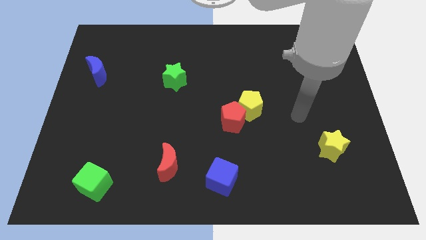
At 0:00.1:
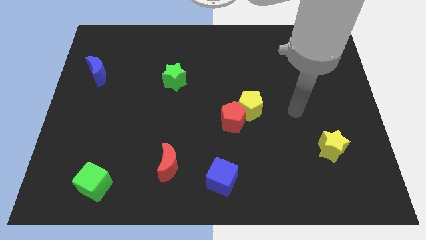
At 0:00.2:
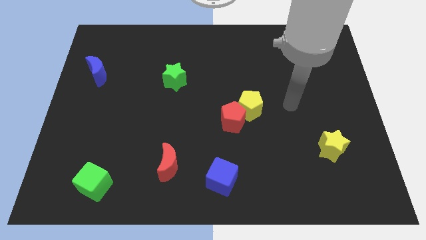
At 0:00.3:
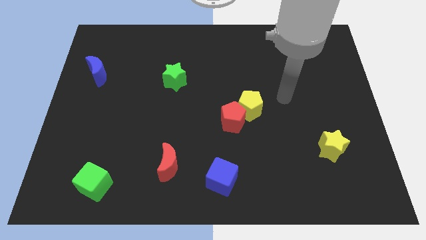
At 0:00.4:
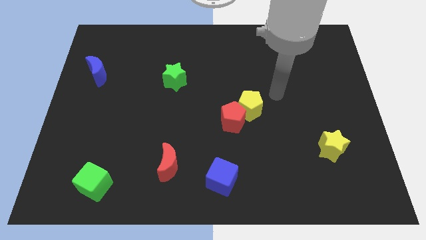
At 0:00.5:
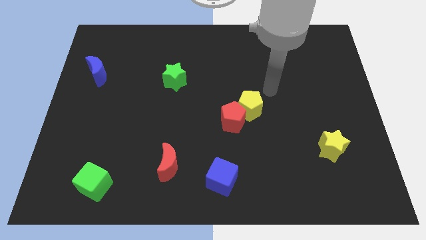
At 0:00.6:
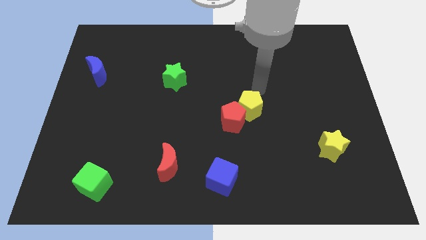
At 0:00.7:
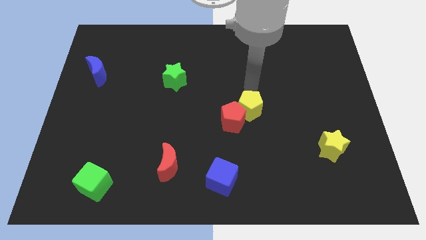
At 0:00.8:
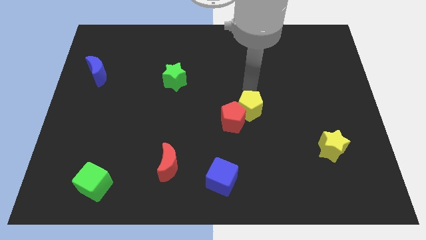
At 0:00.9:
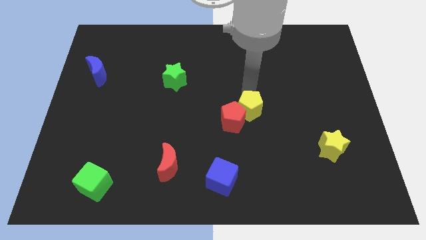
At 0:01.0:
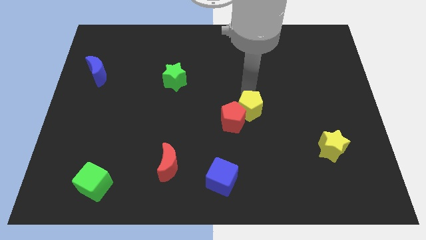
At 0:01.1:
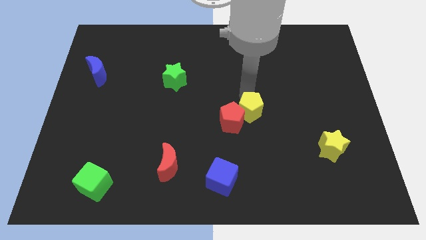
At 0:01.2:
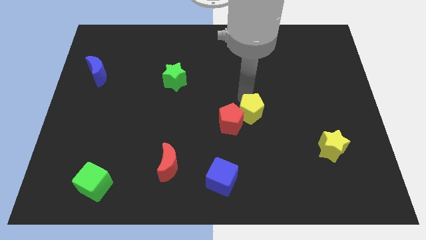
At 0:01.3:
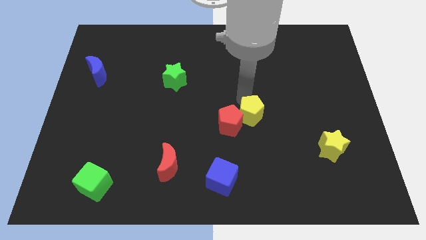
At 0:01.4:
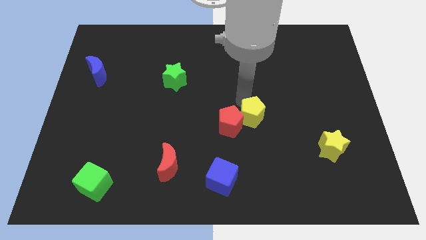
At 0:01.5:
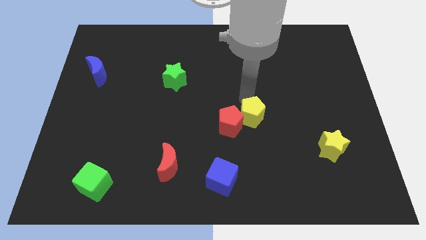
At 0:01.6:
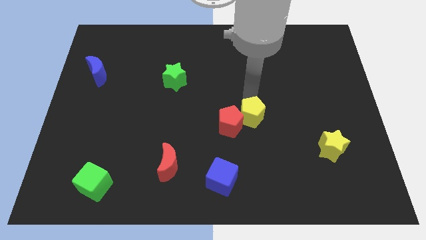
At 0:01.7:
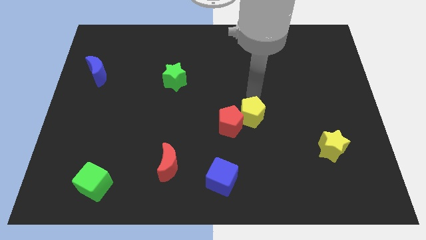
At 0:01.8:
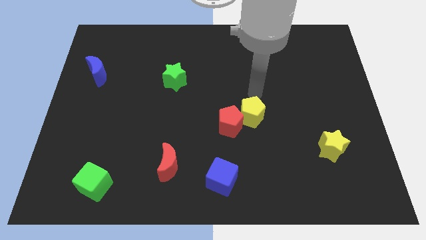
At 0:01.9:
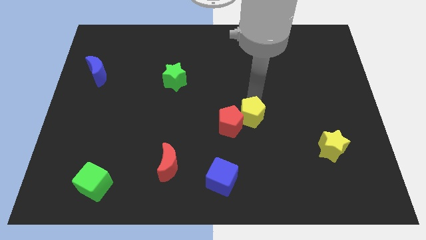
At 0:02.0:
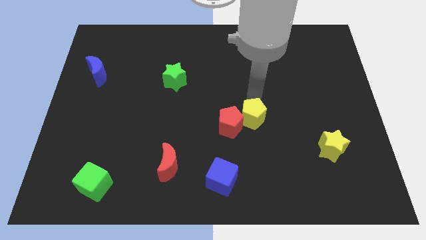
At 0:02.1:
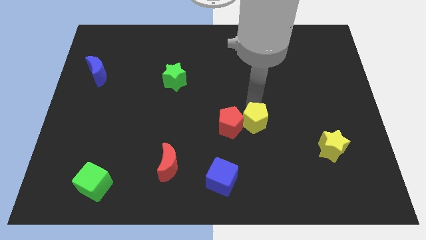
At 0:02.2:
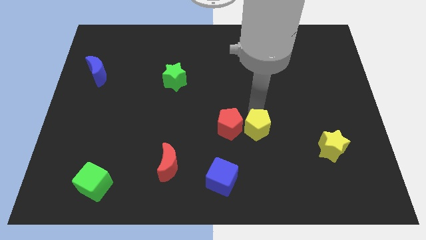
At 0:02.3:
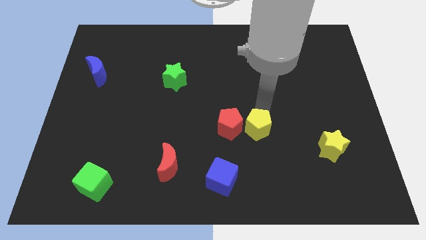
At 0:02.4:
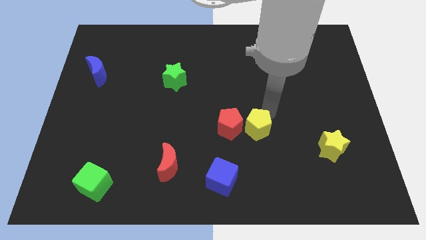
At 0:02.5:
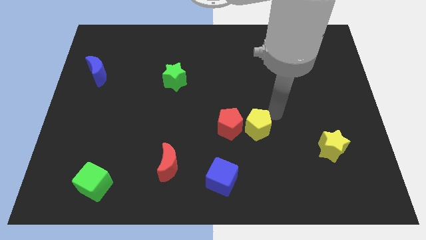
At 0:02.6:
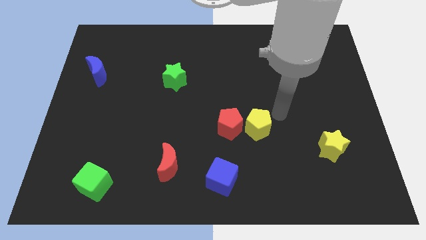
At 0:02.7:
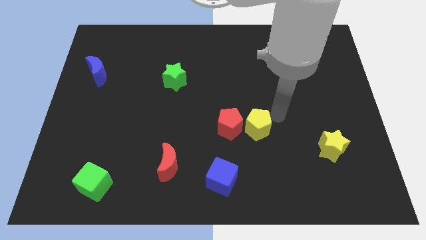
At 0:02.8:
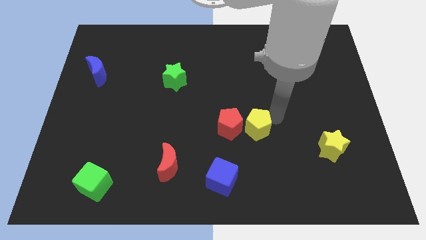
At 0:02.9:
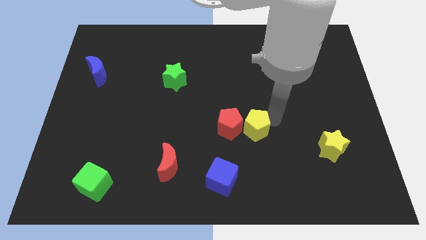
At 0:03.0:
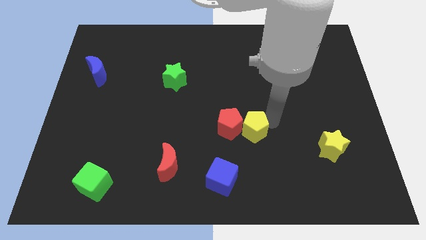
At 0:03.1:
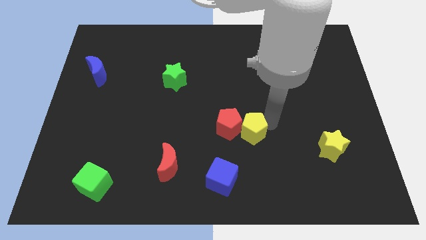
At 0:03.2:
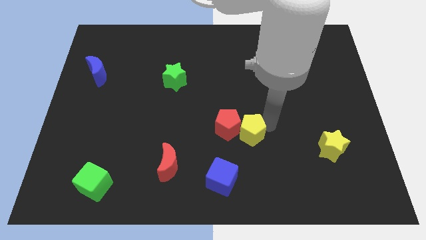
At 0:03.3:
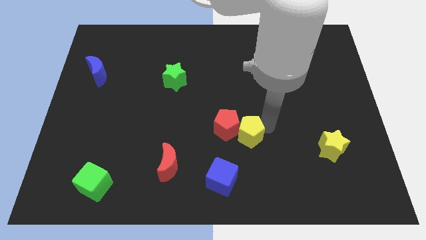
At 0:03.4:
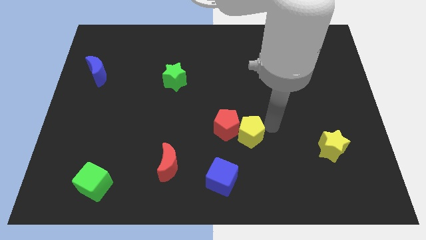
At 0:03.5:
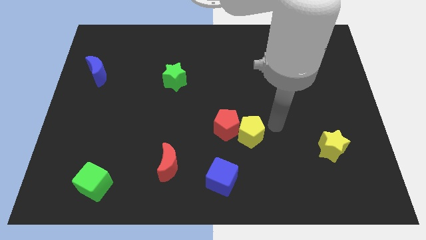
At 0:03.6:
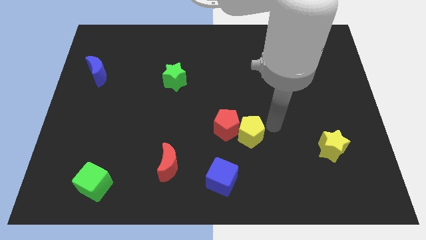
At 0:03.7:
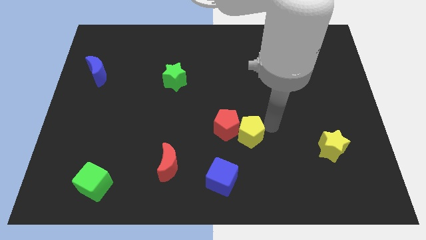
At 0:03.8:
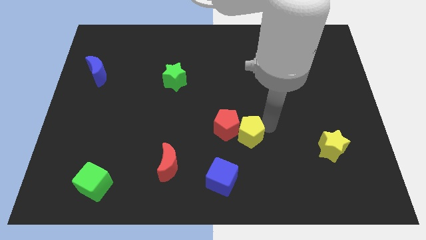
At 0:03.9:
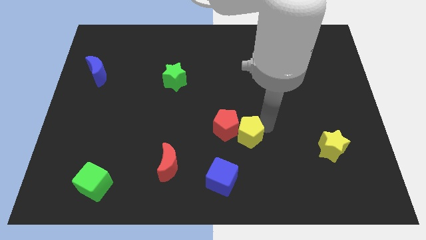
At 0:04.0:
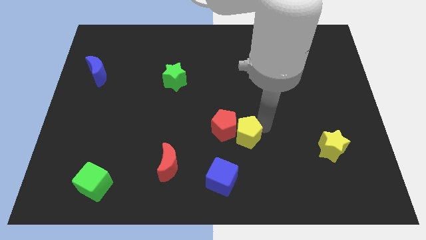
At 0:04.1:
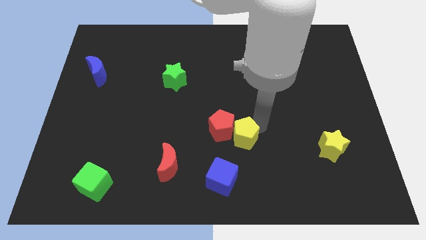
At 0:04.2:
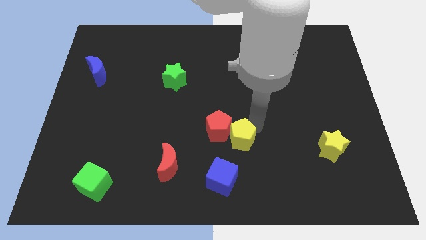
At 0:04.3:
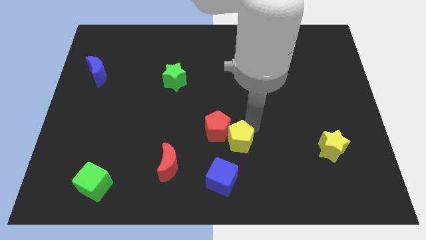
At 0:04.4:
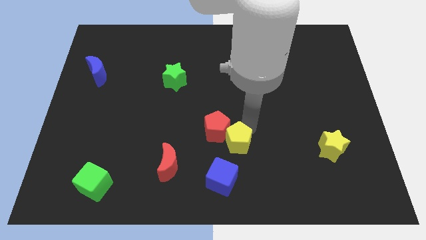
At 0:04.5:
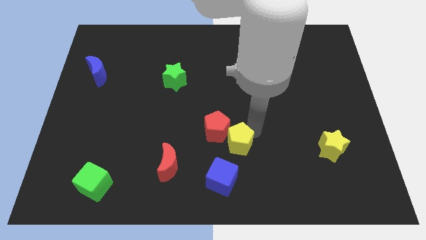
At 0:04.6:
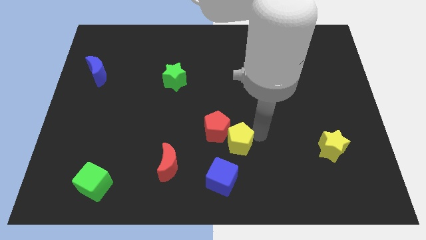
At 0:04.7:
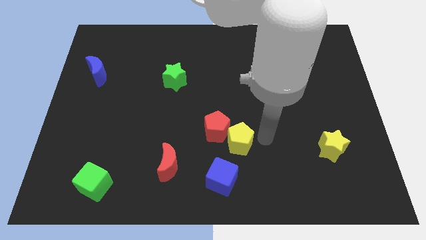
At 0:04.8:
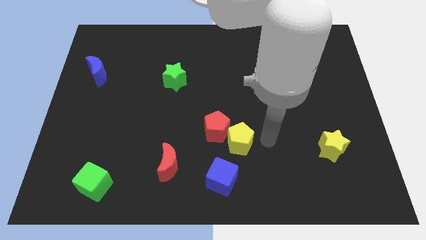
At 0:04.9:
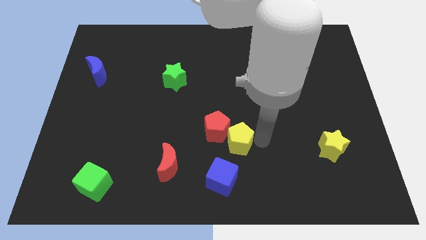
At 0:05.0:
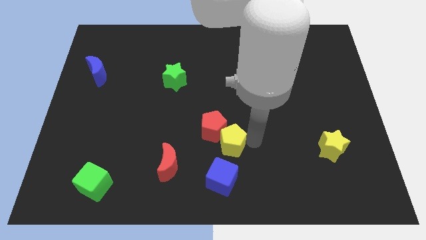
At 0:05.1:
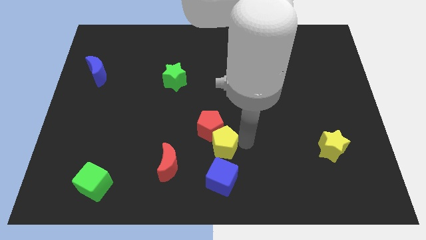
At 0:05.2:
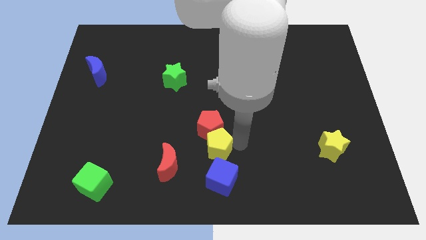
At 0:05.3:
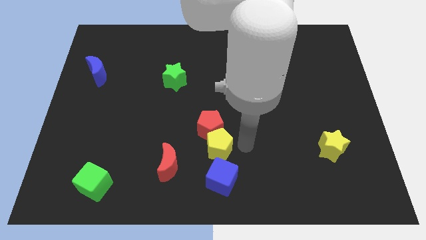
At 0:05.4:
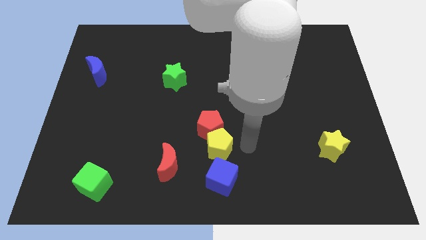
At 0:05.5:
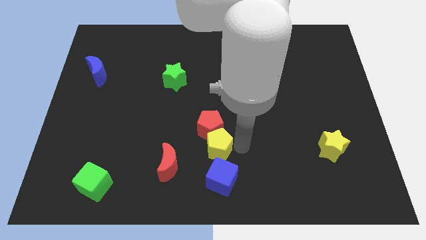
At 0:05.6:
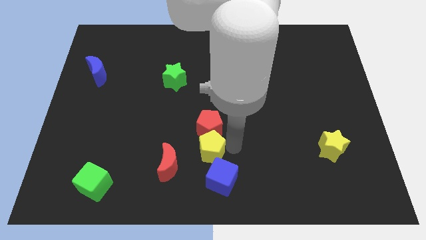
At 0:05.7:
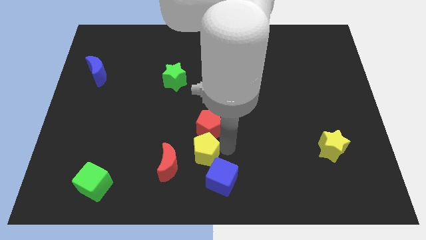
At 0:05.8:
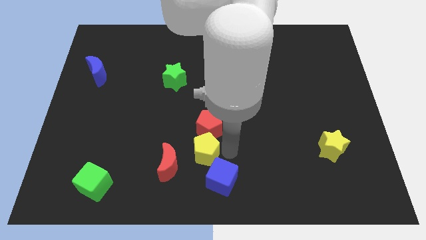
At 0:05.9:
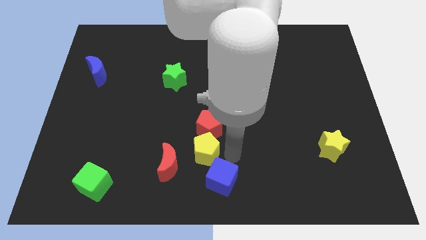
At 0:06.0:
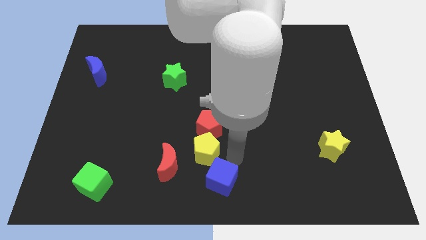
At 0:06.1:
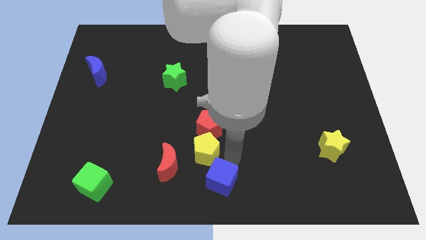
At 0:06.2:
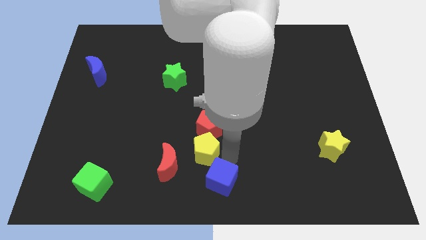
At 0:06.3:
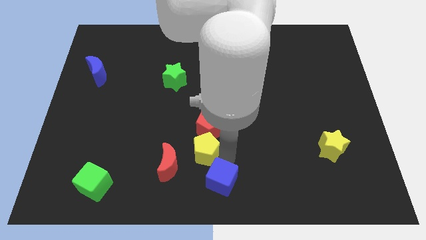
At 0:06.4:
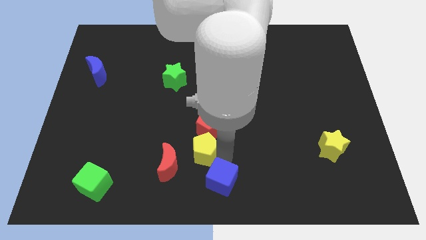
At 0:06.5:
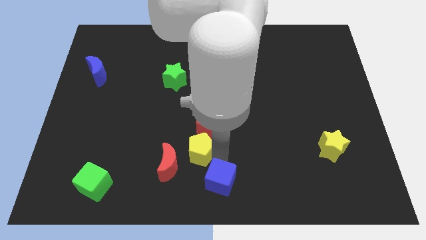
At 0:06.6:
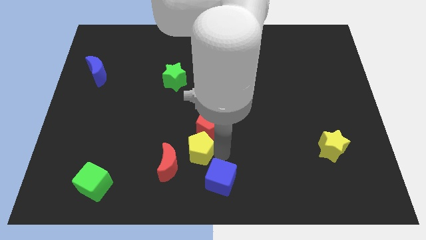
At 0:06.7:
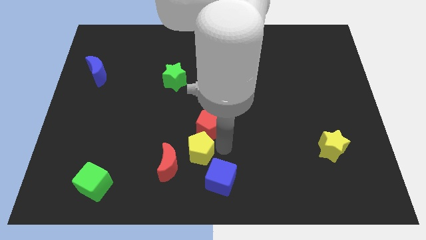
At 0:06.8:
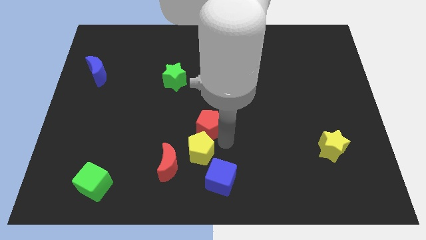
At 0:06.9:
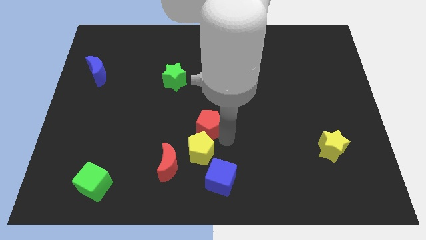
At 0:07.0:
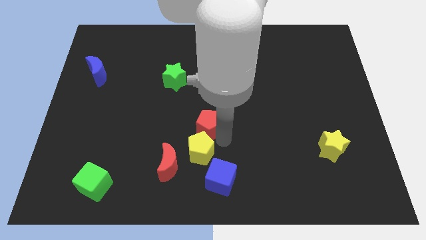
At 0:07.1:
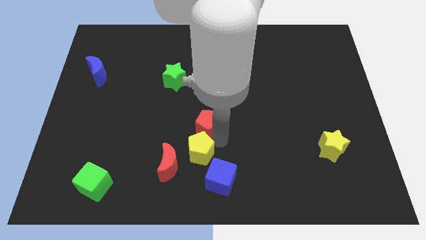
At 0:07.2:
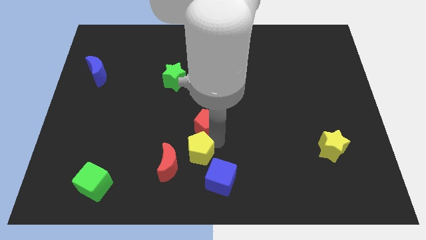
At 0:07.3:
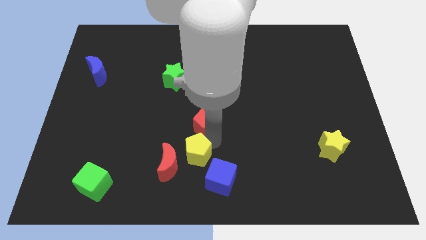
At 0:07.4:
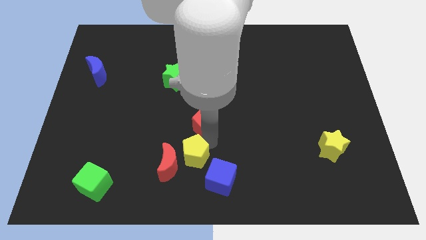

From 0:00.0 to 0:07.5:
move the yellow pentagon close to the red moon
